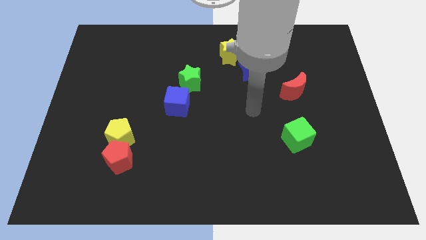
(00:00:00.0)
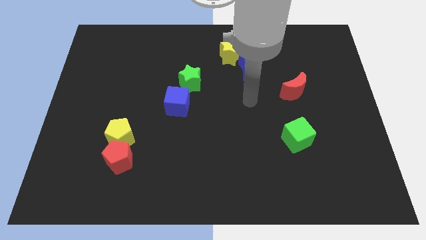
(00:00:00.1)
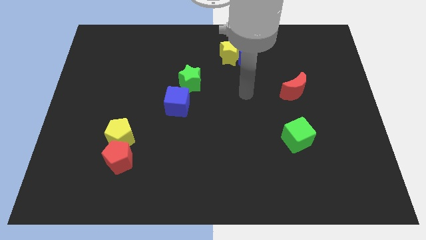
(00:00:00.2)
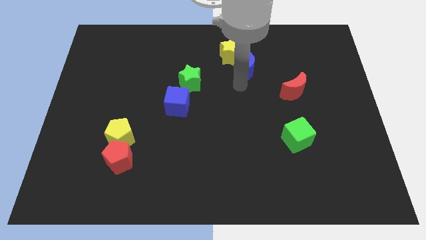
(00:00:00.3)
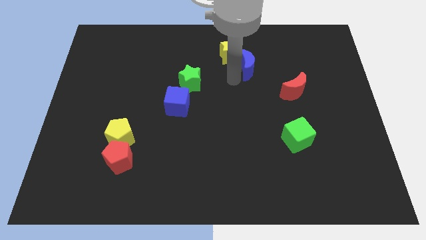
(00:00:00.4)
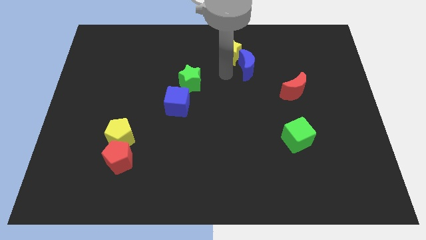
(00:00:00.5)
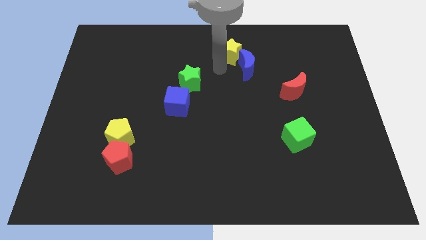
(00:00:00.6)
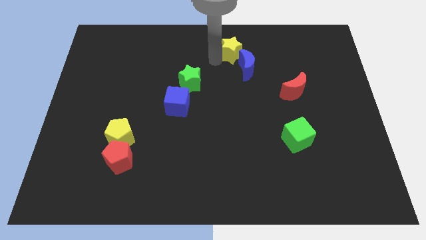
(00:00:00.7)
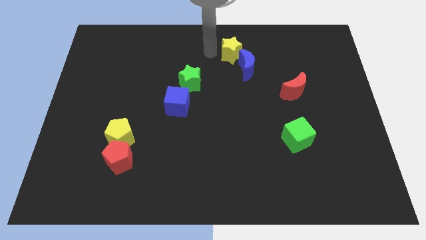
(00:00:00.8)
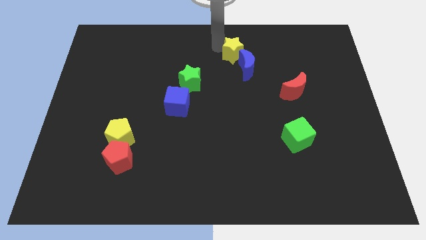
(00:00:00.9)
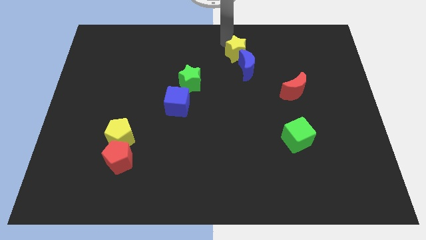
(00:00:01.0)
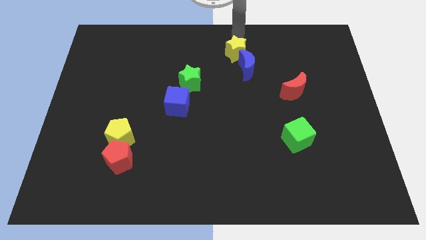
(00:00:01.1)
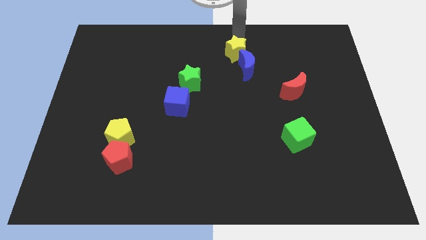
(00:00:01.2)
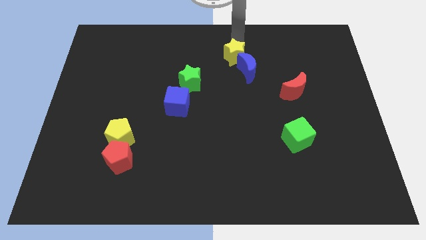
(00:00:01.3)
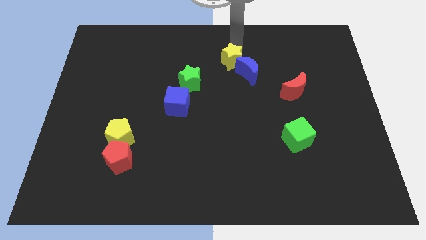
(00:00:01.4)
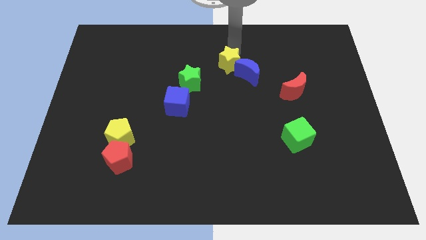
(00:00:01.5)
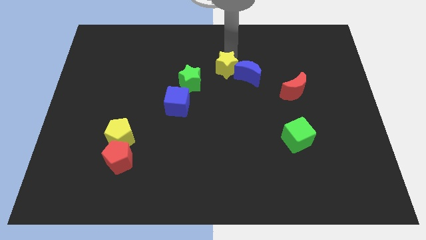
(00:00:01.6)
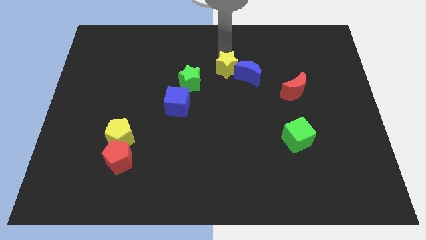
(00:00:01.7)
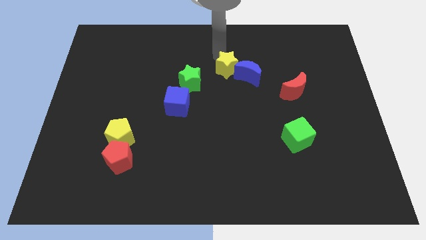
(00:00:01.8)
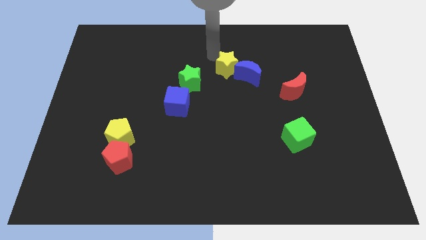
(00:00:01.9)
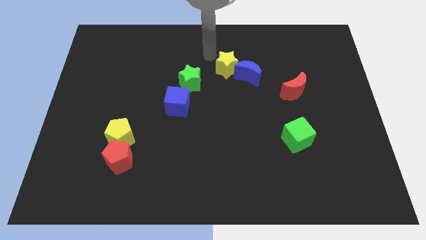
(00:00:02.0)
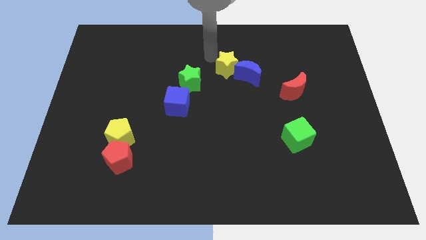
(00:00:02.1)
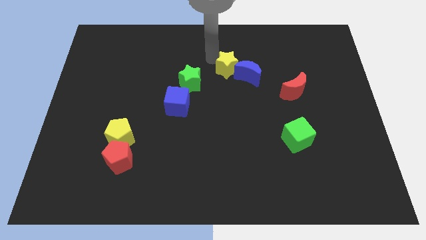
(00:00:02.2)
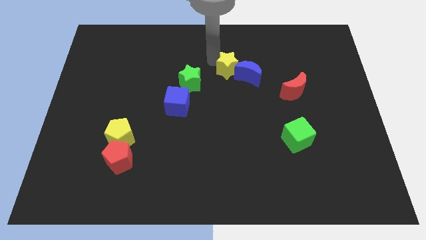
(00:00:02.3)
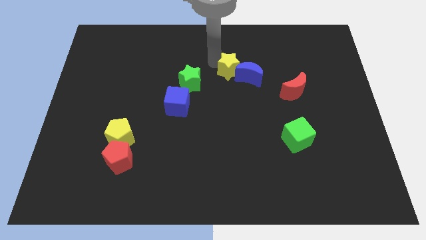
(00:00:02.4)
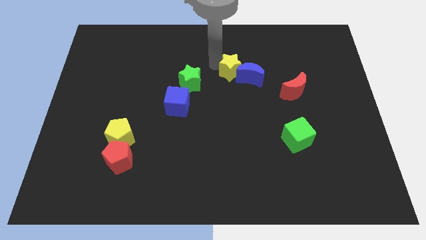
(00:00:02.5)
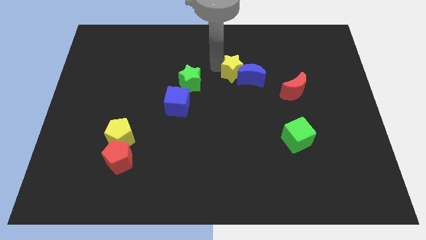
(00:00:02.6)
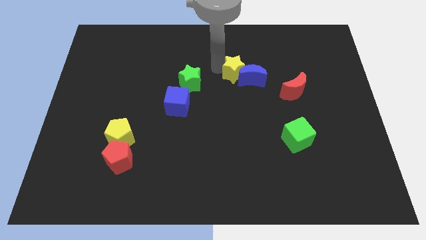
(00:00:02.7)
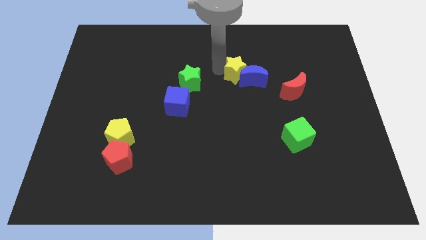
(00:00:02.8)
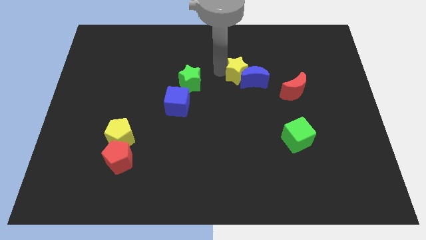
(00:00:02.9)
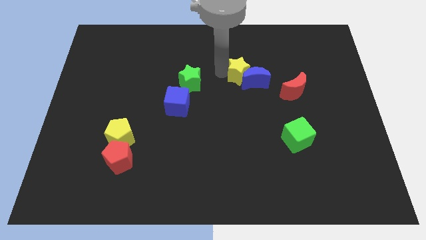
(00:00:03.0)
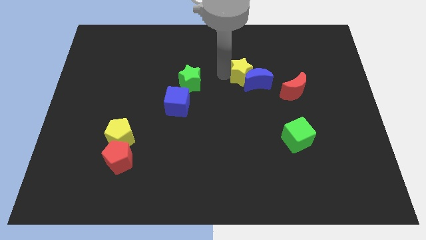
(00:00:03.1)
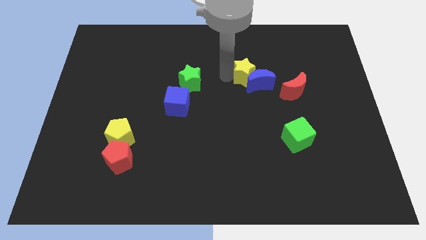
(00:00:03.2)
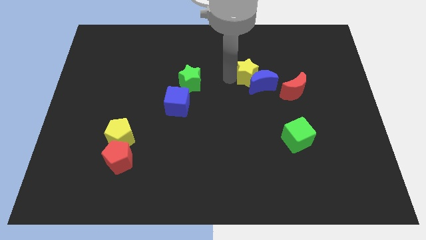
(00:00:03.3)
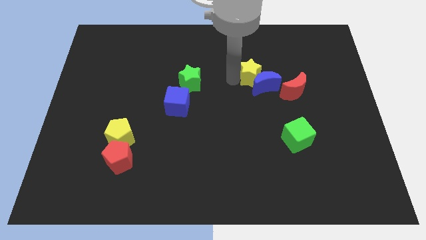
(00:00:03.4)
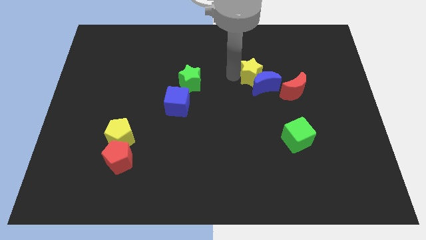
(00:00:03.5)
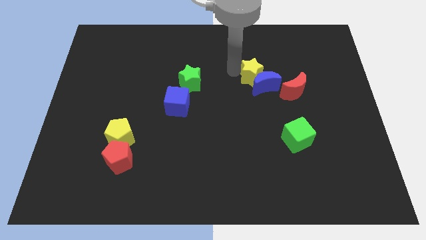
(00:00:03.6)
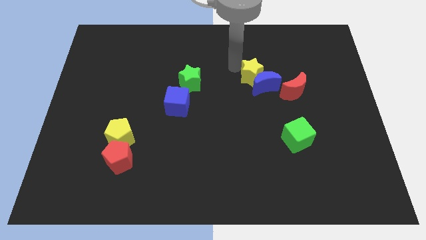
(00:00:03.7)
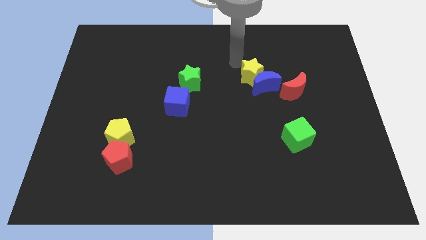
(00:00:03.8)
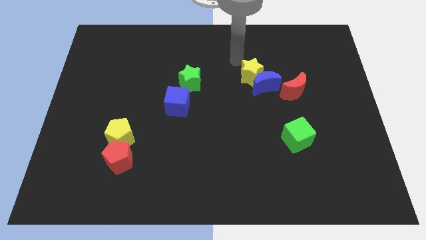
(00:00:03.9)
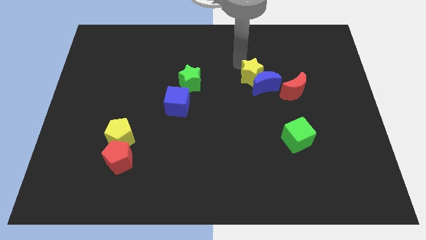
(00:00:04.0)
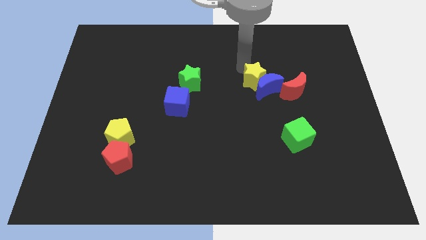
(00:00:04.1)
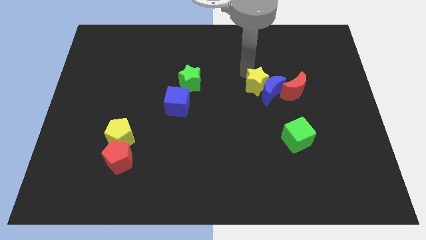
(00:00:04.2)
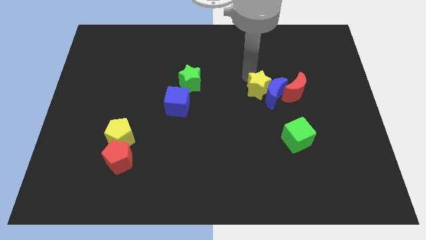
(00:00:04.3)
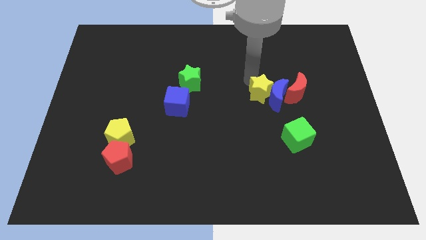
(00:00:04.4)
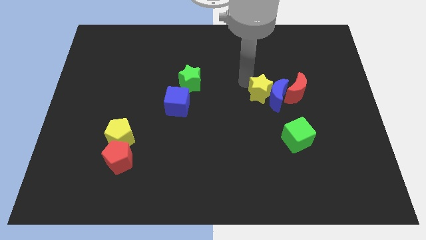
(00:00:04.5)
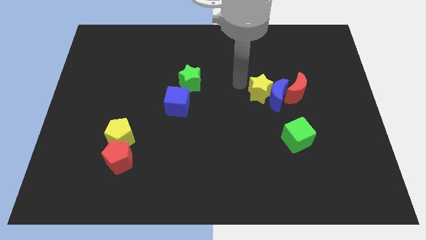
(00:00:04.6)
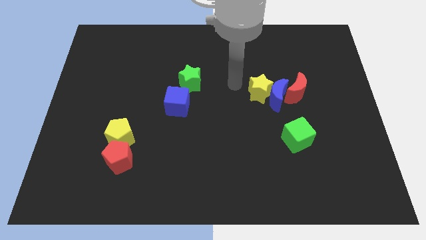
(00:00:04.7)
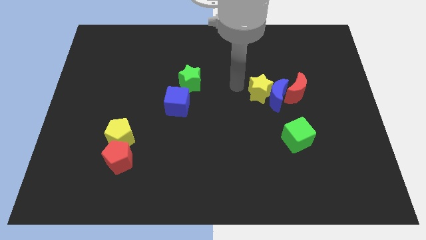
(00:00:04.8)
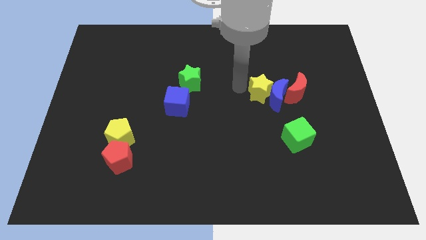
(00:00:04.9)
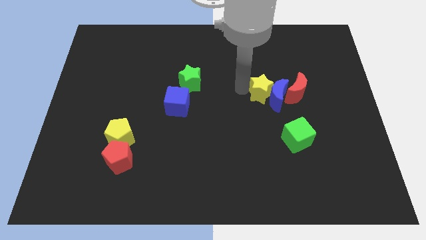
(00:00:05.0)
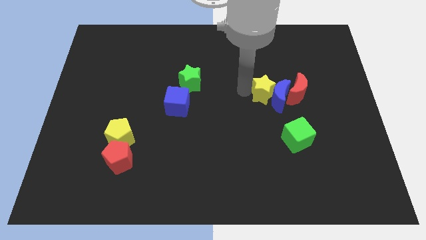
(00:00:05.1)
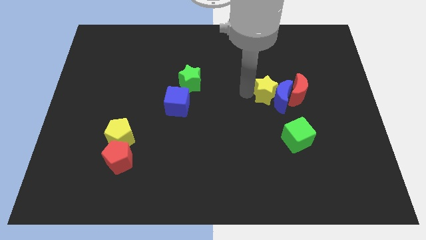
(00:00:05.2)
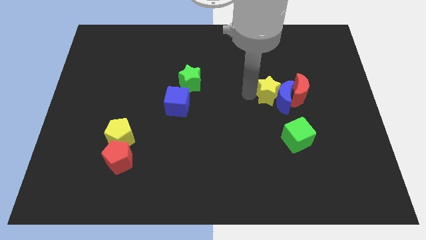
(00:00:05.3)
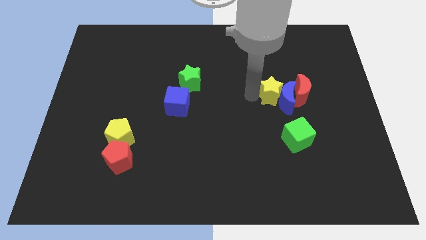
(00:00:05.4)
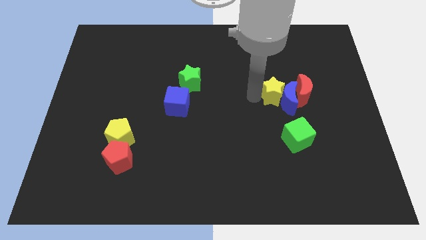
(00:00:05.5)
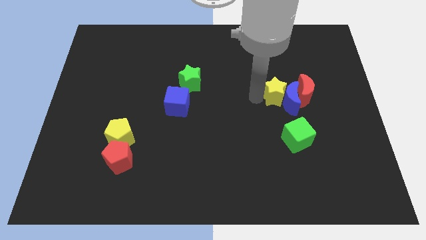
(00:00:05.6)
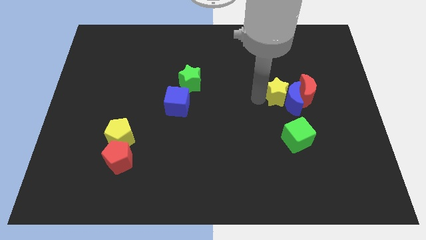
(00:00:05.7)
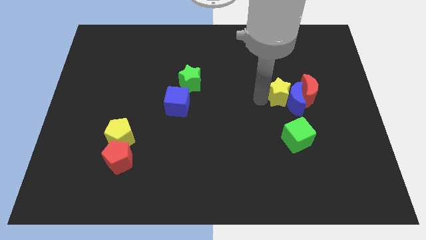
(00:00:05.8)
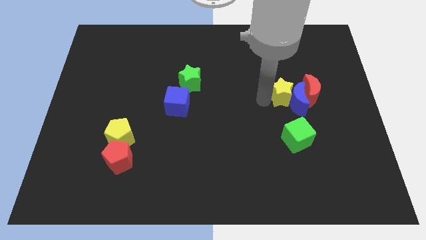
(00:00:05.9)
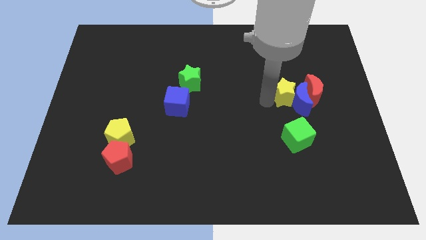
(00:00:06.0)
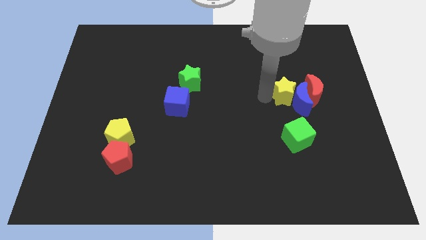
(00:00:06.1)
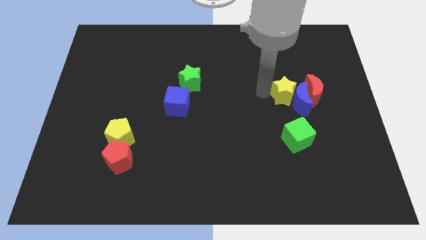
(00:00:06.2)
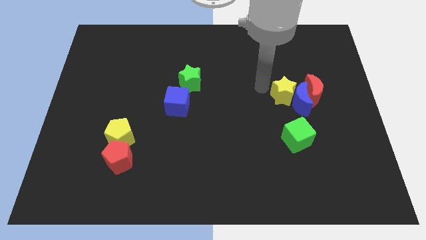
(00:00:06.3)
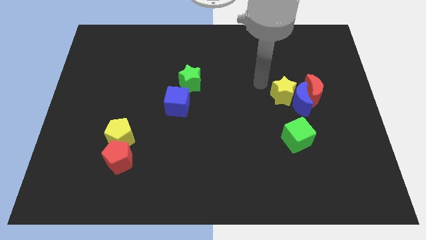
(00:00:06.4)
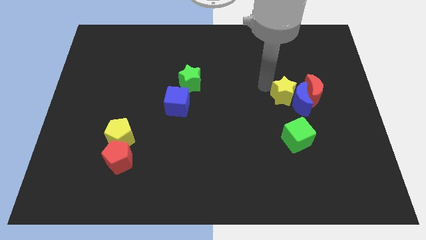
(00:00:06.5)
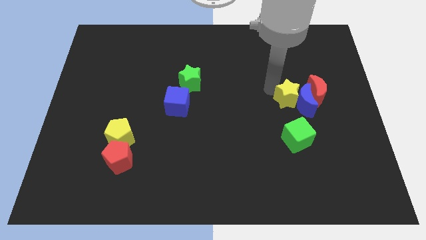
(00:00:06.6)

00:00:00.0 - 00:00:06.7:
slide the yellow star diagonally down and right

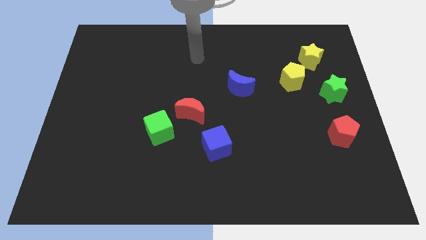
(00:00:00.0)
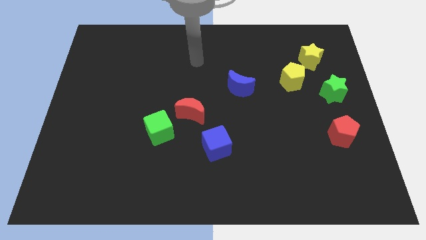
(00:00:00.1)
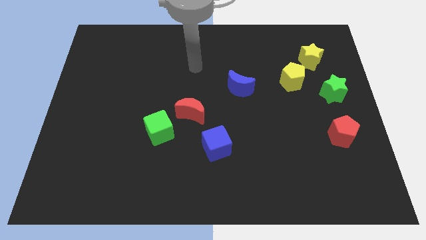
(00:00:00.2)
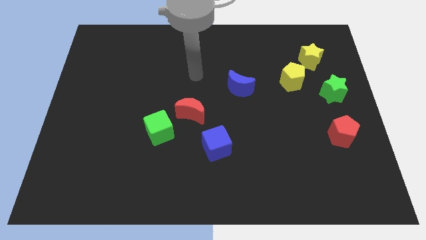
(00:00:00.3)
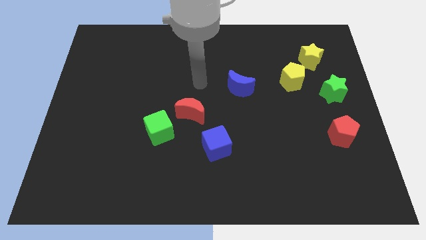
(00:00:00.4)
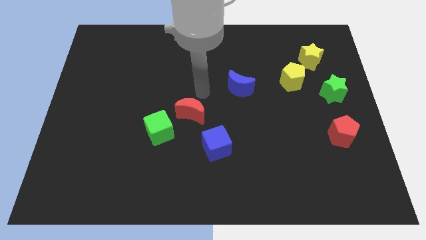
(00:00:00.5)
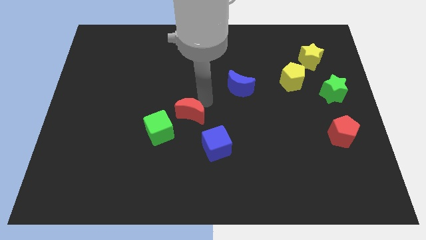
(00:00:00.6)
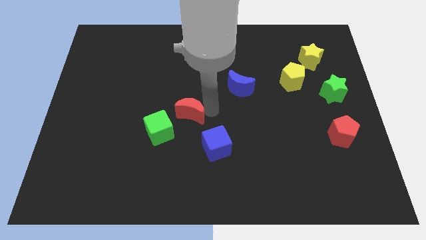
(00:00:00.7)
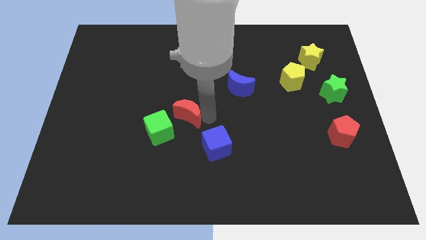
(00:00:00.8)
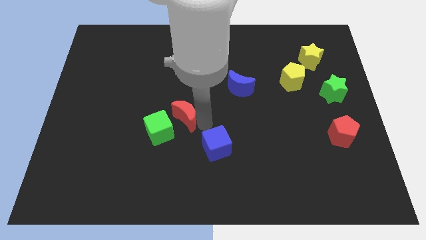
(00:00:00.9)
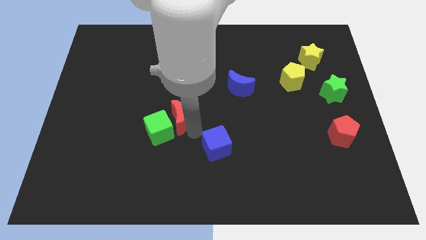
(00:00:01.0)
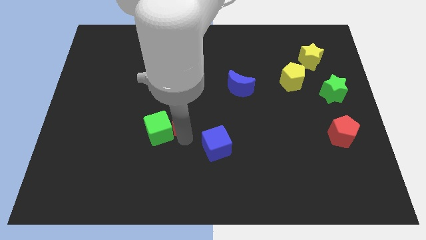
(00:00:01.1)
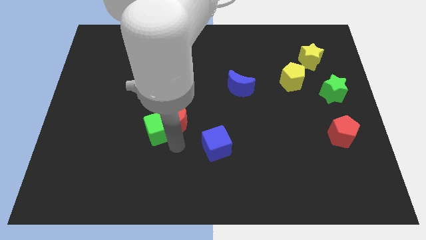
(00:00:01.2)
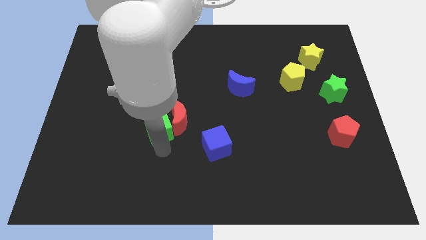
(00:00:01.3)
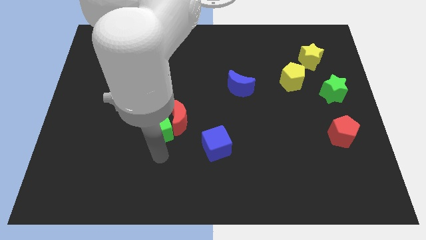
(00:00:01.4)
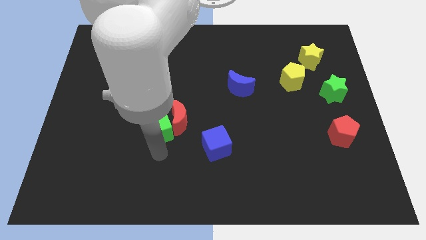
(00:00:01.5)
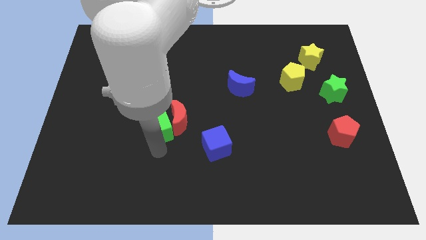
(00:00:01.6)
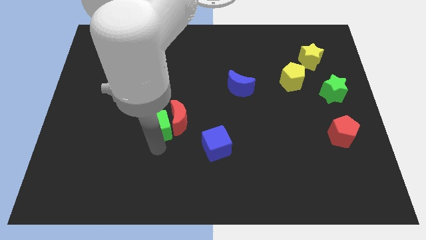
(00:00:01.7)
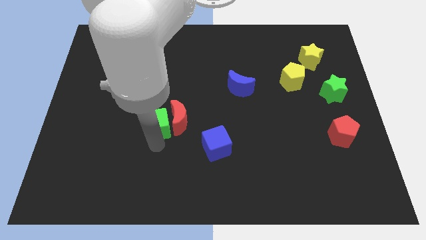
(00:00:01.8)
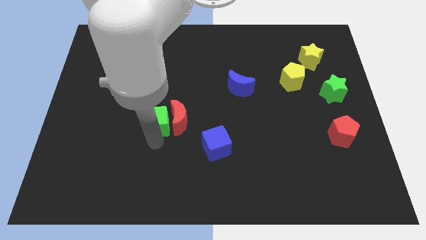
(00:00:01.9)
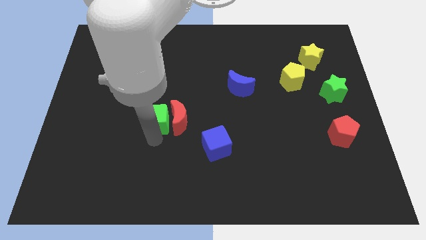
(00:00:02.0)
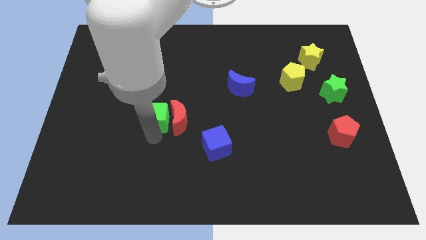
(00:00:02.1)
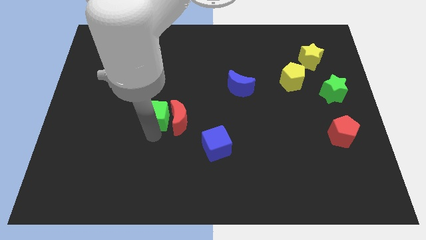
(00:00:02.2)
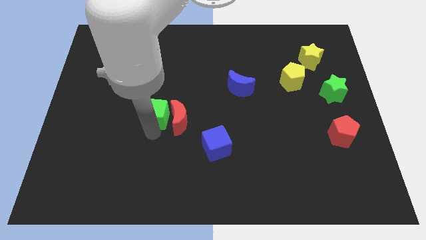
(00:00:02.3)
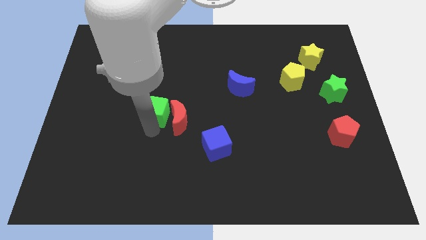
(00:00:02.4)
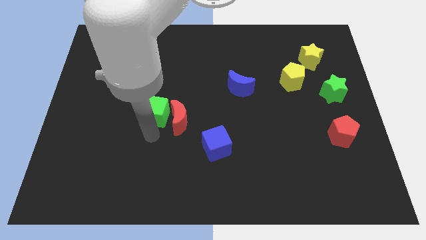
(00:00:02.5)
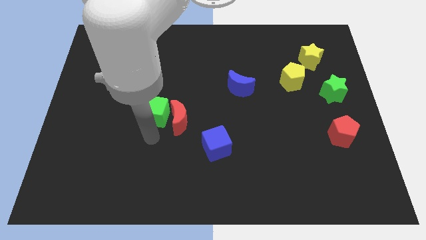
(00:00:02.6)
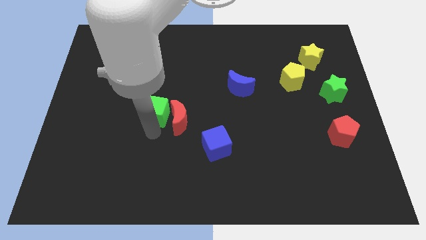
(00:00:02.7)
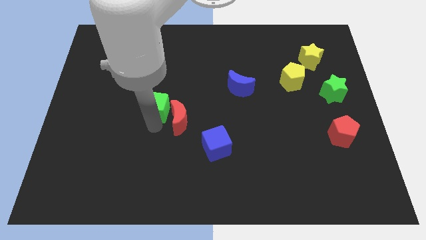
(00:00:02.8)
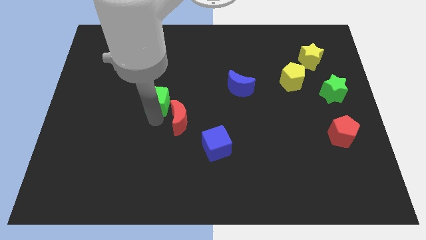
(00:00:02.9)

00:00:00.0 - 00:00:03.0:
slide the green cube up slightly
